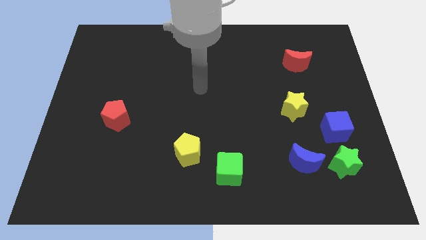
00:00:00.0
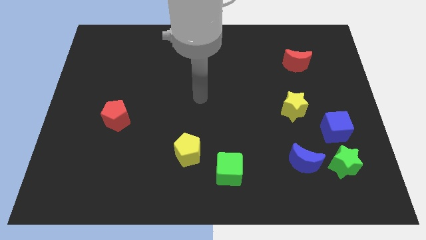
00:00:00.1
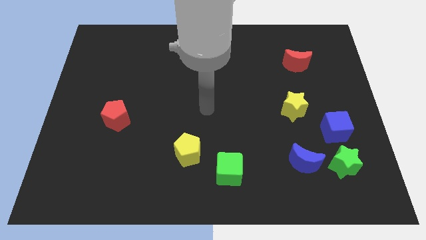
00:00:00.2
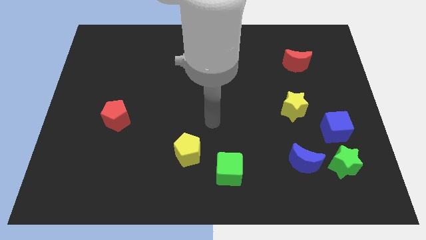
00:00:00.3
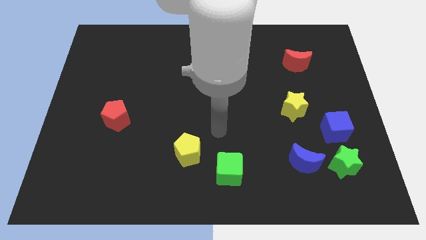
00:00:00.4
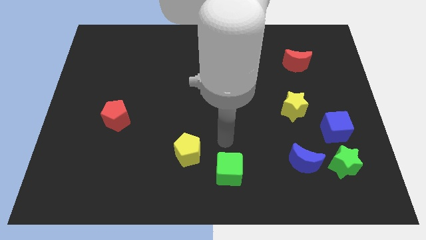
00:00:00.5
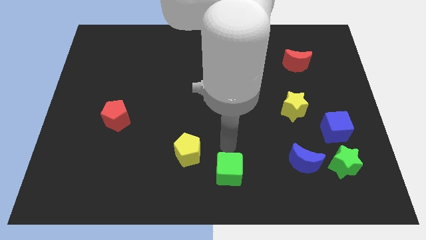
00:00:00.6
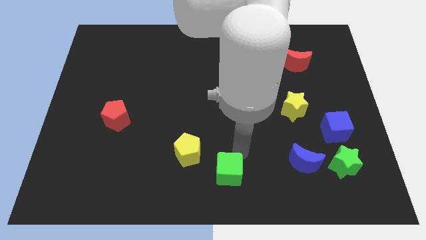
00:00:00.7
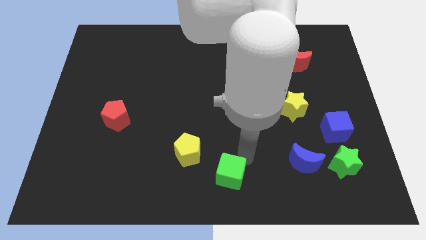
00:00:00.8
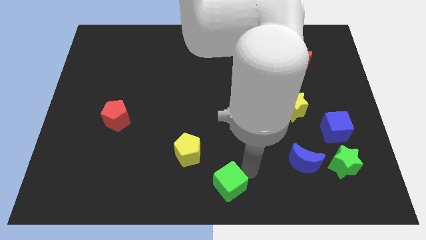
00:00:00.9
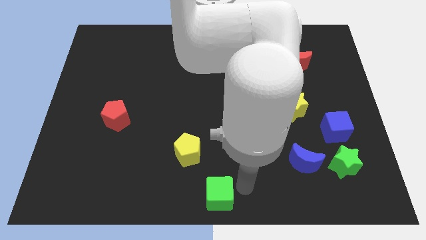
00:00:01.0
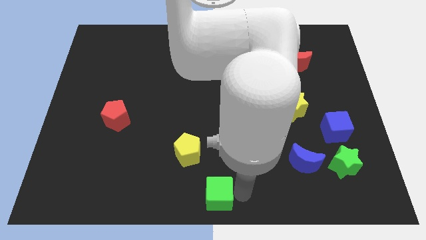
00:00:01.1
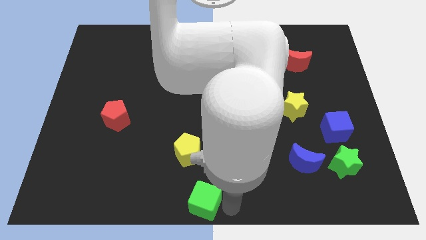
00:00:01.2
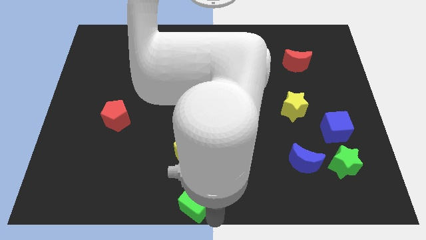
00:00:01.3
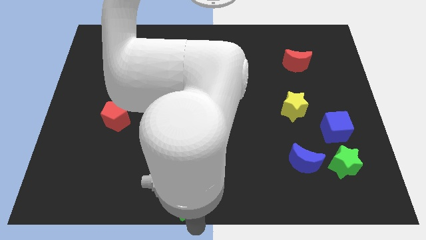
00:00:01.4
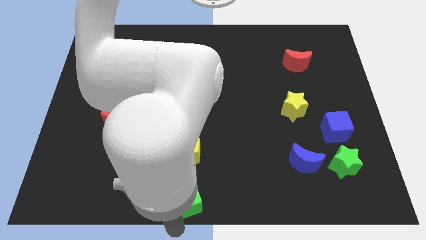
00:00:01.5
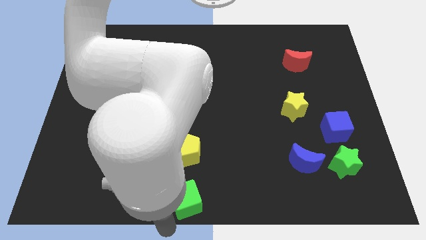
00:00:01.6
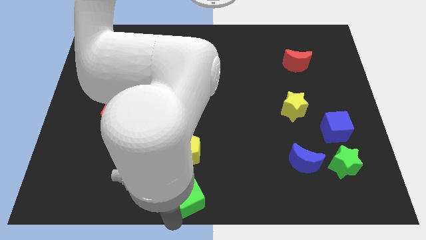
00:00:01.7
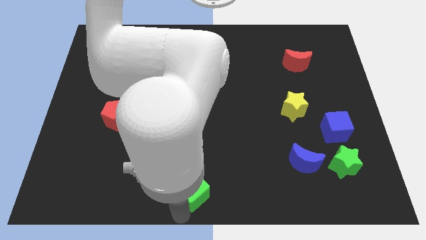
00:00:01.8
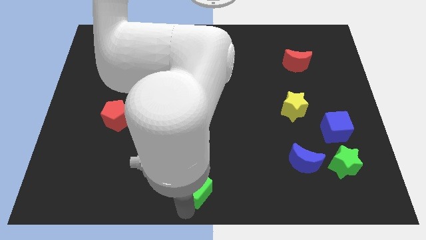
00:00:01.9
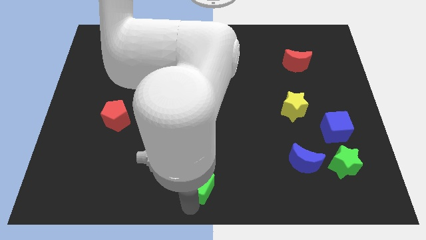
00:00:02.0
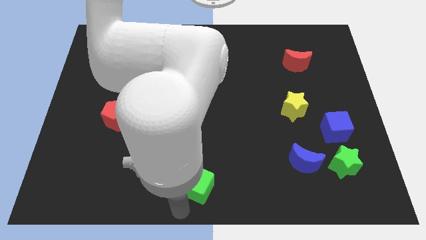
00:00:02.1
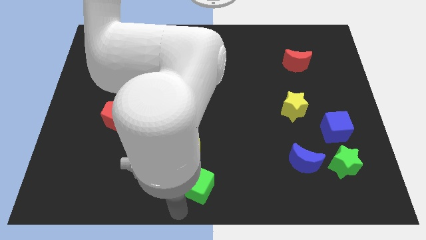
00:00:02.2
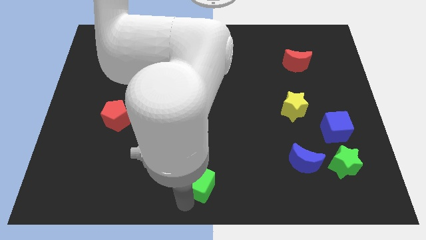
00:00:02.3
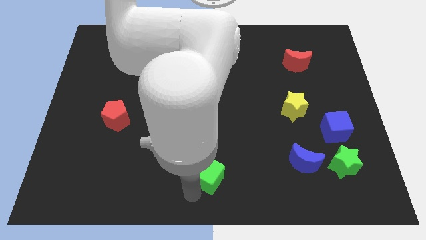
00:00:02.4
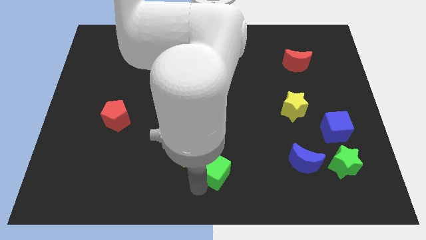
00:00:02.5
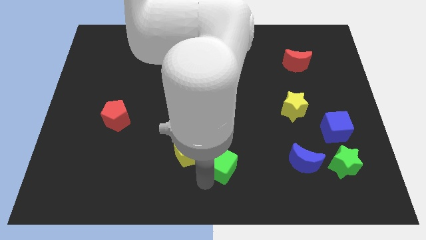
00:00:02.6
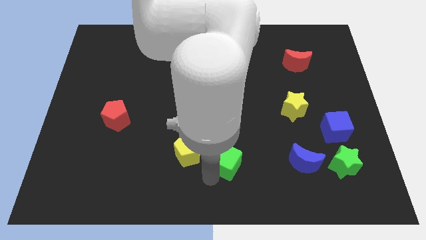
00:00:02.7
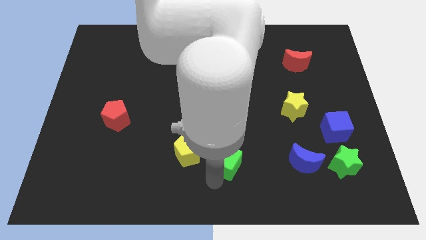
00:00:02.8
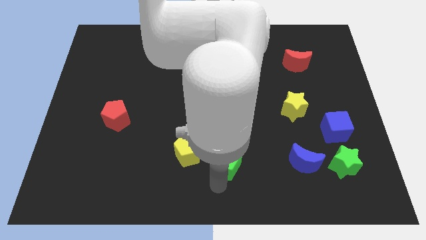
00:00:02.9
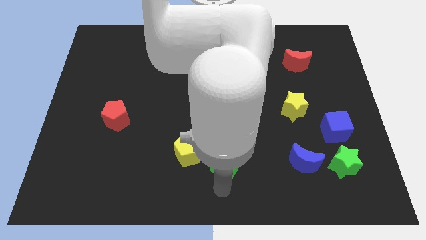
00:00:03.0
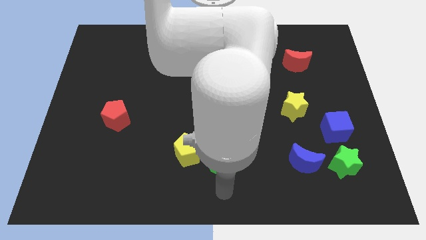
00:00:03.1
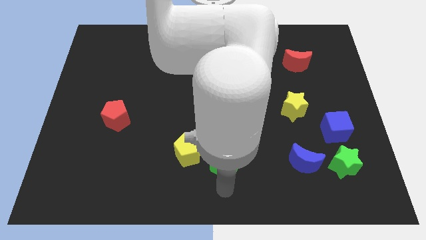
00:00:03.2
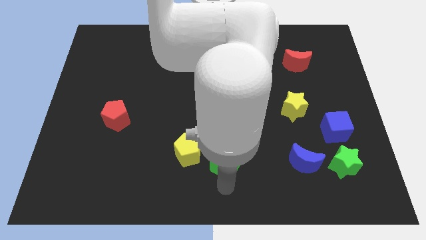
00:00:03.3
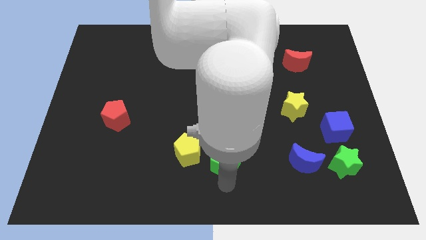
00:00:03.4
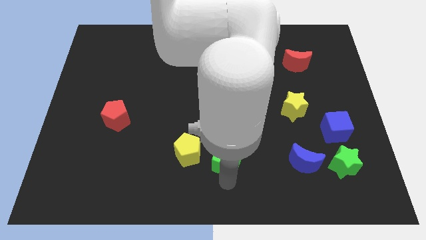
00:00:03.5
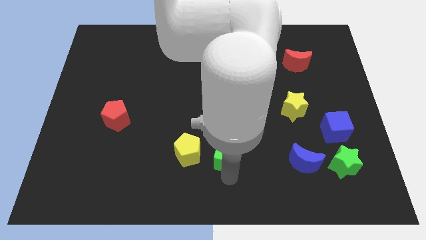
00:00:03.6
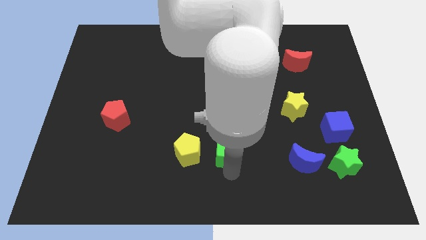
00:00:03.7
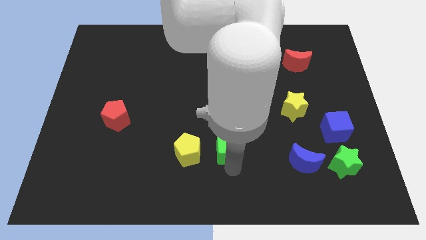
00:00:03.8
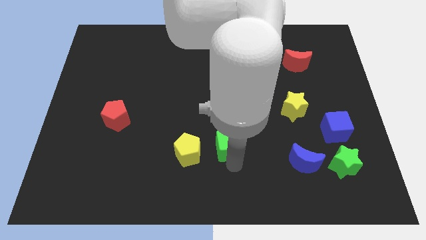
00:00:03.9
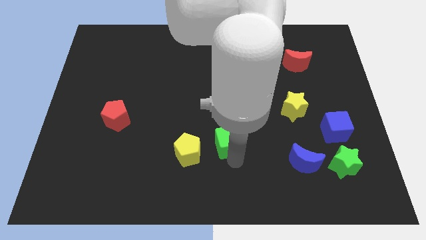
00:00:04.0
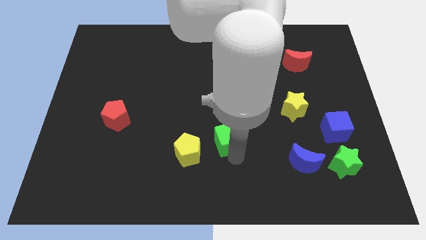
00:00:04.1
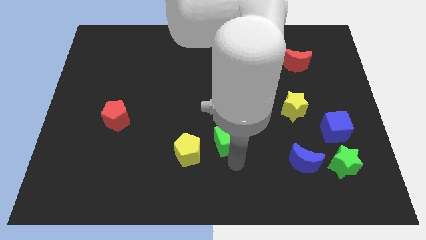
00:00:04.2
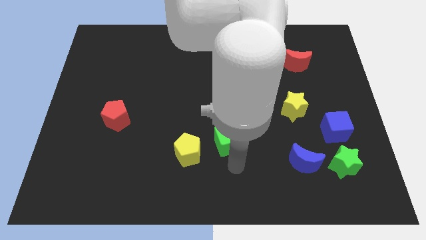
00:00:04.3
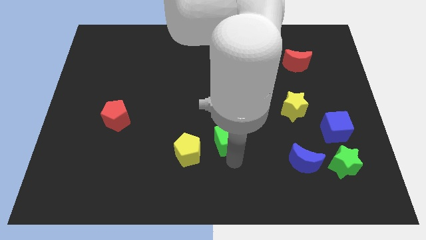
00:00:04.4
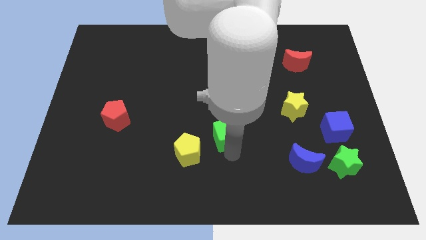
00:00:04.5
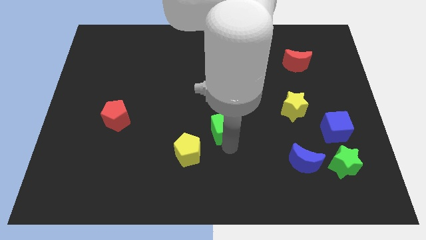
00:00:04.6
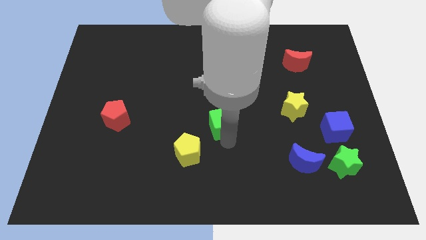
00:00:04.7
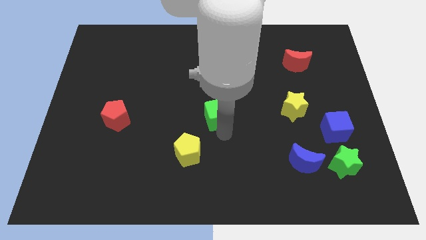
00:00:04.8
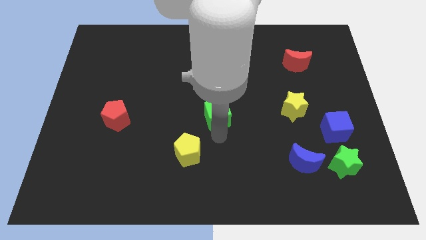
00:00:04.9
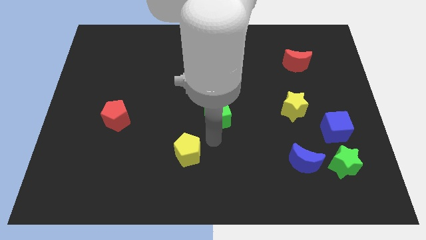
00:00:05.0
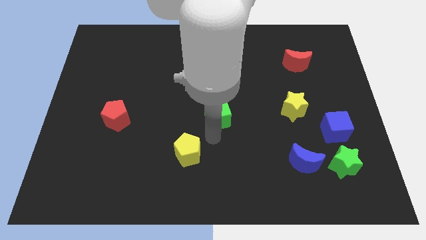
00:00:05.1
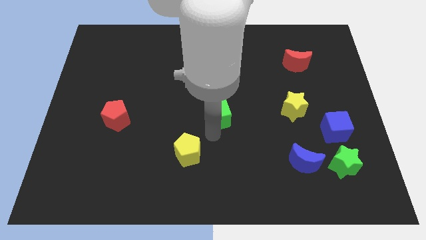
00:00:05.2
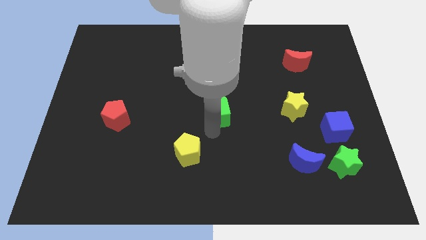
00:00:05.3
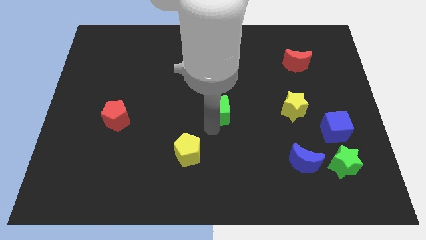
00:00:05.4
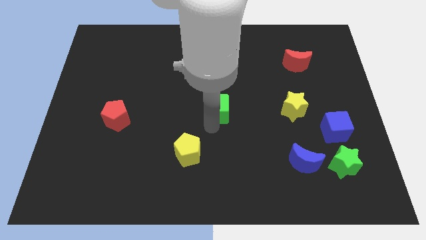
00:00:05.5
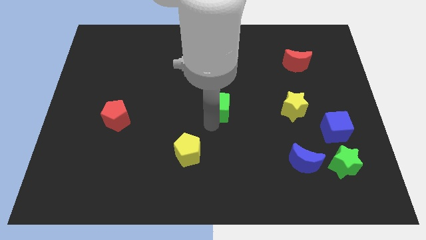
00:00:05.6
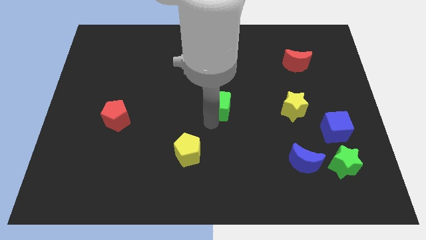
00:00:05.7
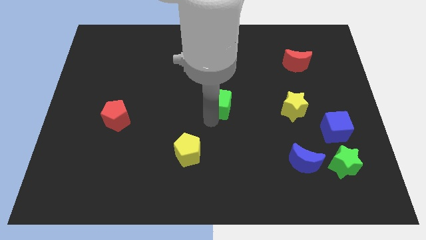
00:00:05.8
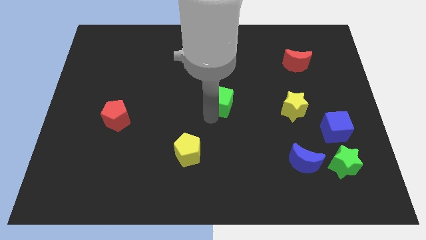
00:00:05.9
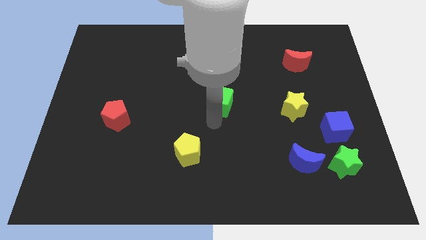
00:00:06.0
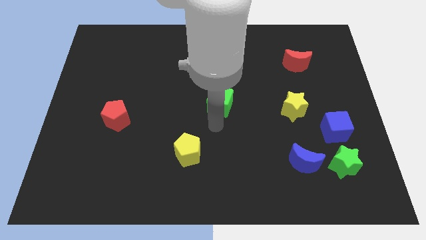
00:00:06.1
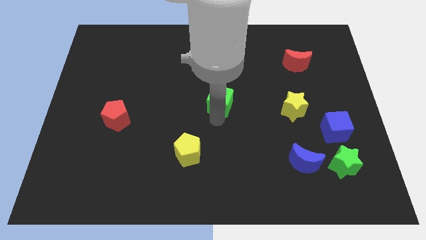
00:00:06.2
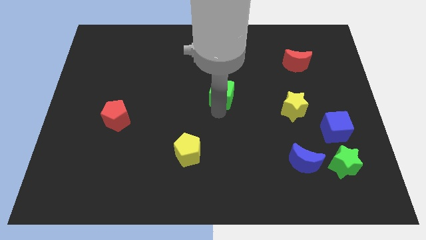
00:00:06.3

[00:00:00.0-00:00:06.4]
slide the green cube up

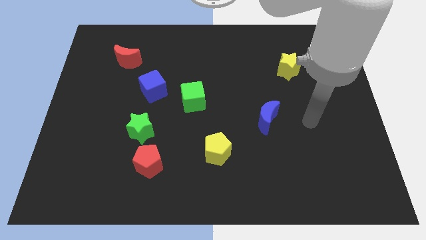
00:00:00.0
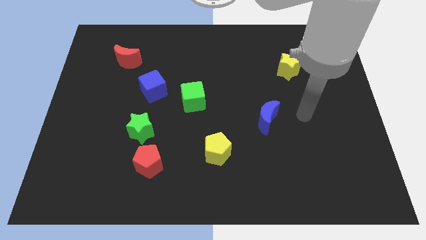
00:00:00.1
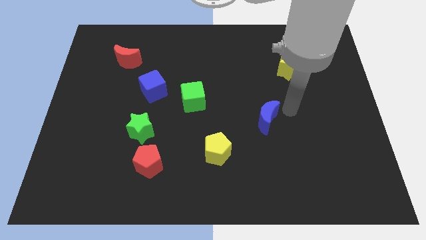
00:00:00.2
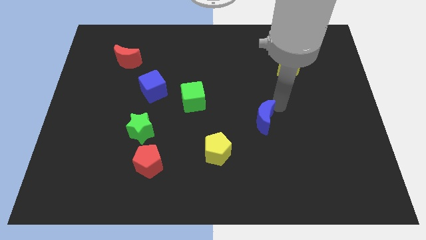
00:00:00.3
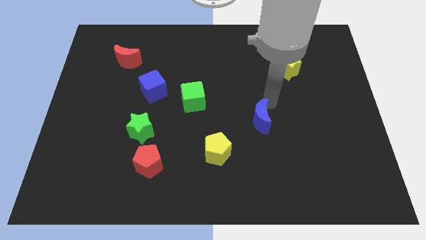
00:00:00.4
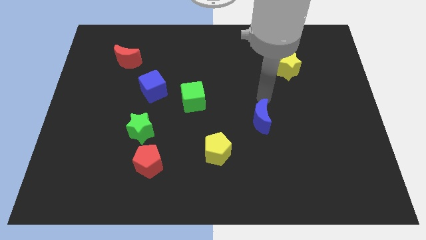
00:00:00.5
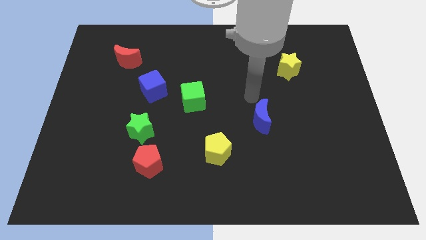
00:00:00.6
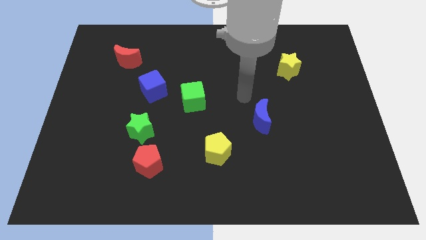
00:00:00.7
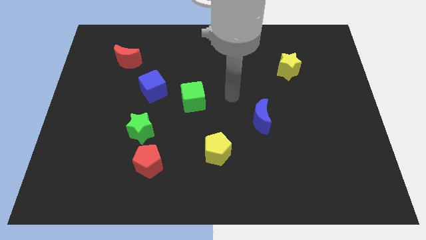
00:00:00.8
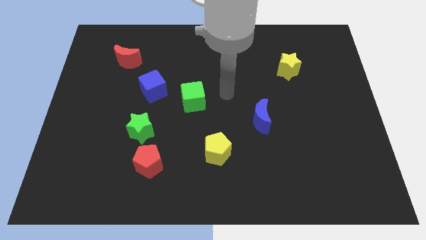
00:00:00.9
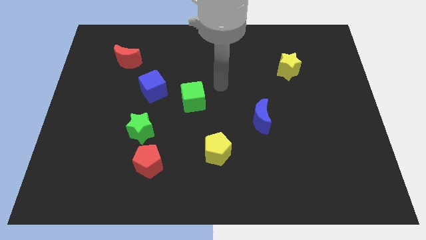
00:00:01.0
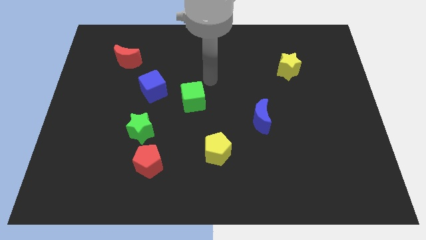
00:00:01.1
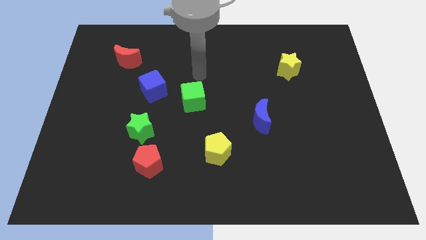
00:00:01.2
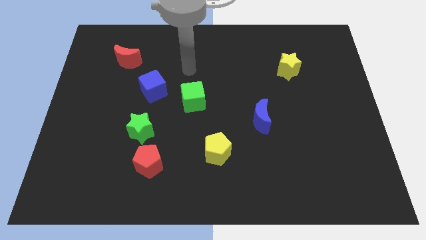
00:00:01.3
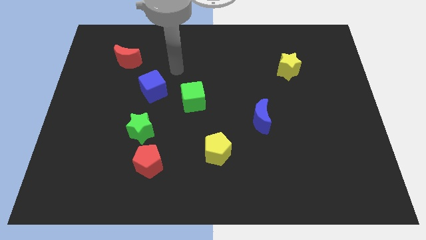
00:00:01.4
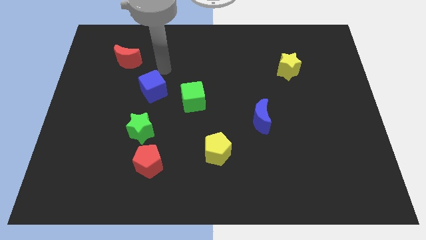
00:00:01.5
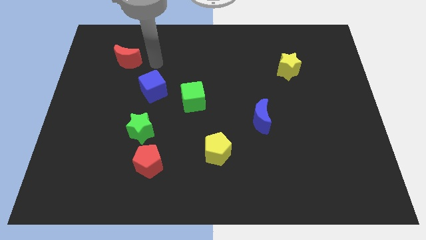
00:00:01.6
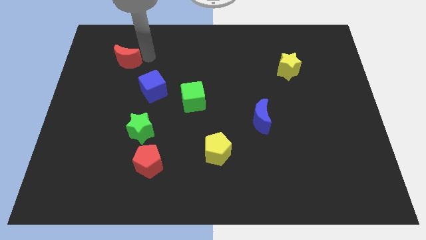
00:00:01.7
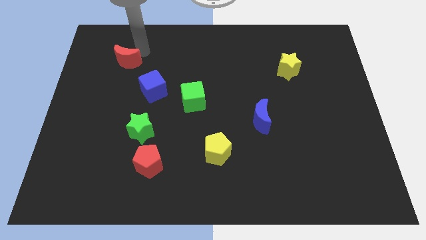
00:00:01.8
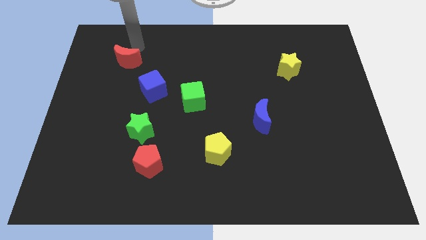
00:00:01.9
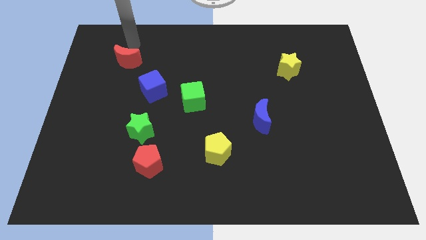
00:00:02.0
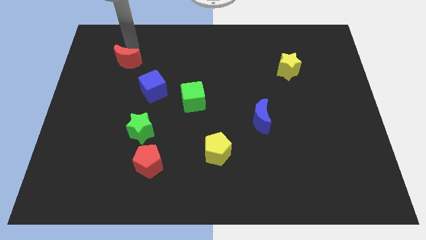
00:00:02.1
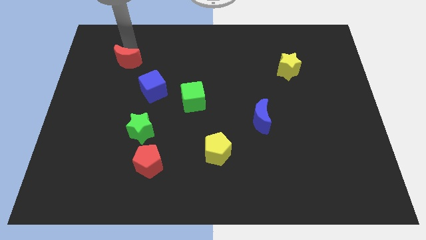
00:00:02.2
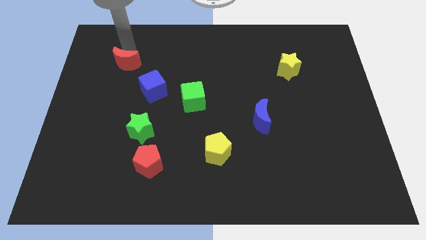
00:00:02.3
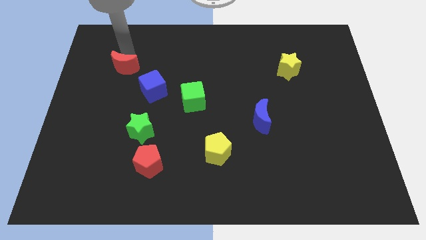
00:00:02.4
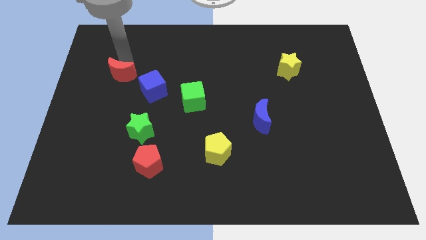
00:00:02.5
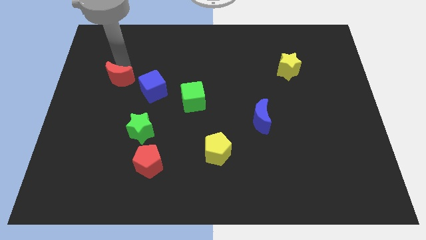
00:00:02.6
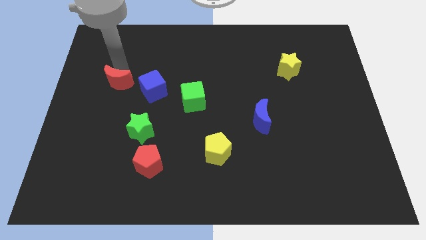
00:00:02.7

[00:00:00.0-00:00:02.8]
move the red moon a little bit down
